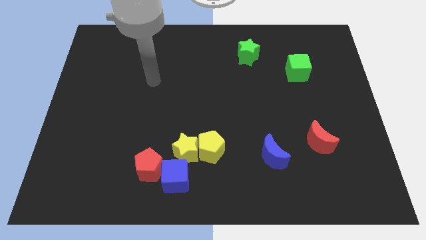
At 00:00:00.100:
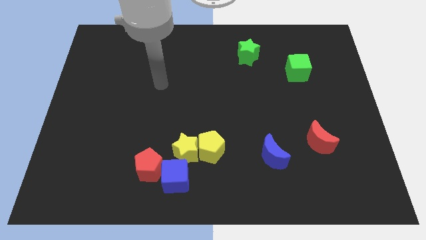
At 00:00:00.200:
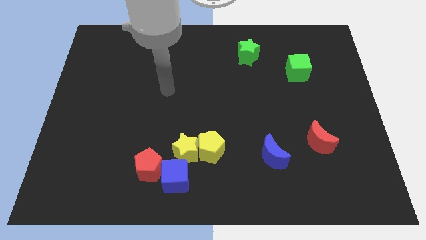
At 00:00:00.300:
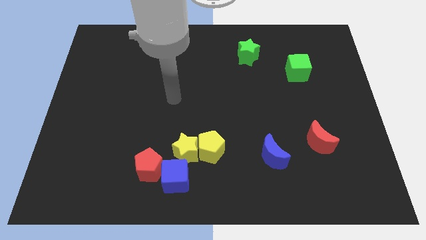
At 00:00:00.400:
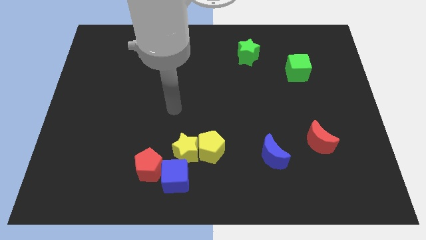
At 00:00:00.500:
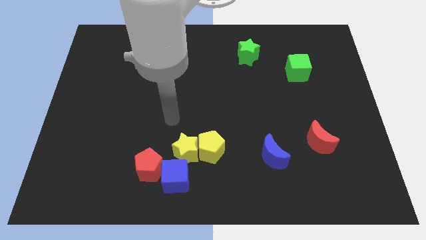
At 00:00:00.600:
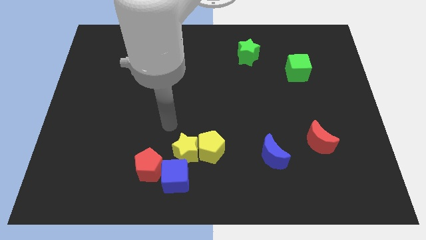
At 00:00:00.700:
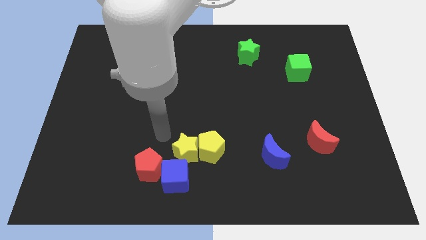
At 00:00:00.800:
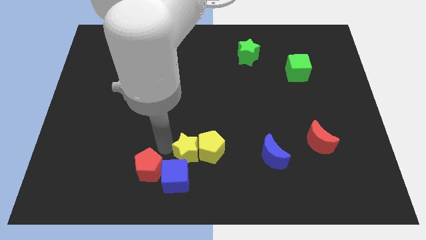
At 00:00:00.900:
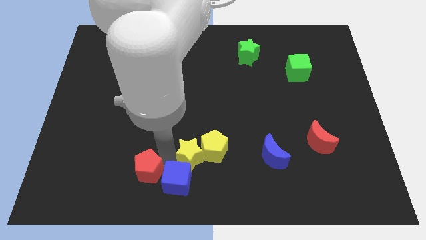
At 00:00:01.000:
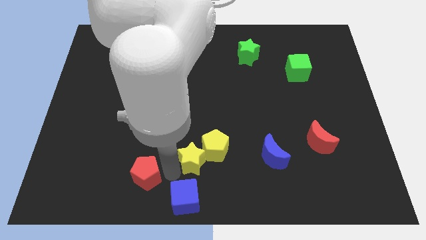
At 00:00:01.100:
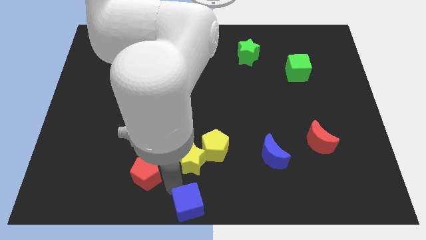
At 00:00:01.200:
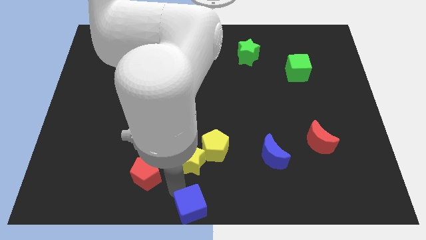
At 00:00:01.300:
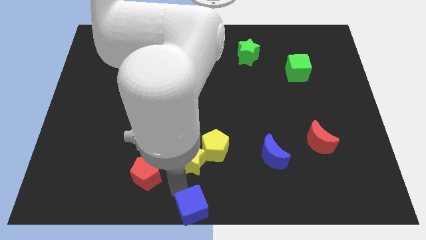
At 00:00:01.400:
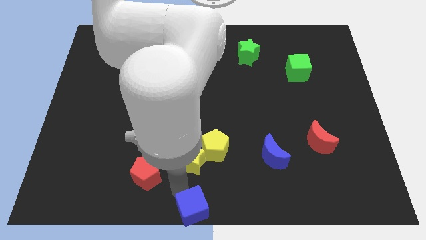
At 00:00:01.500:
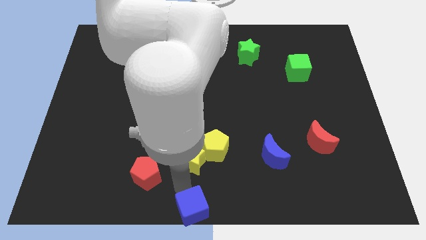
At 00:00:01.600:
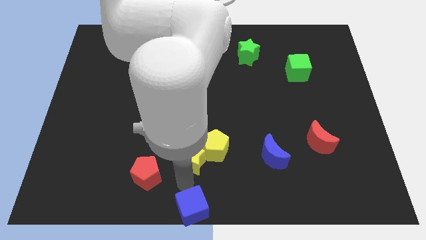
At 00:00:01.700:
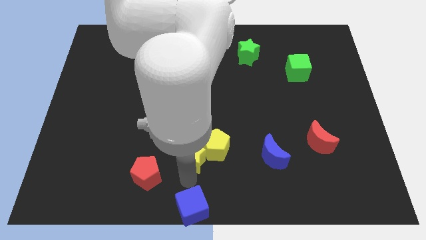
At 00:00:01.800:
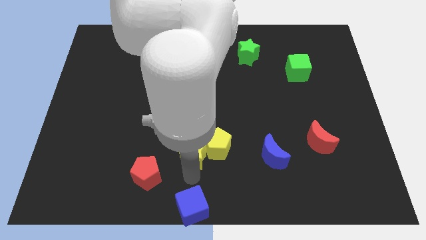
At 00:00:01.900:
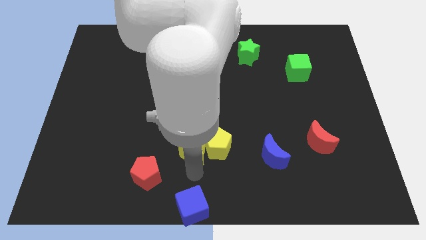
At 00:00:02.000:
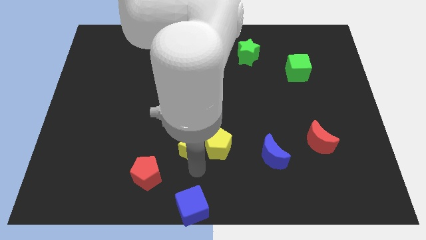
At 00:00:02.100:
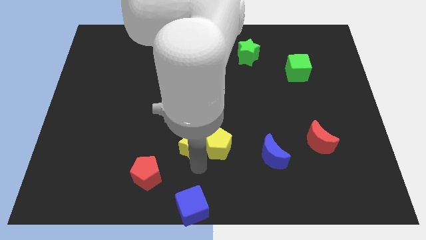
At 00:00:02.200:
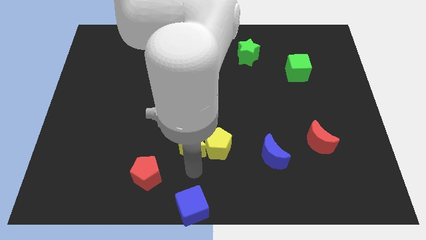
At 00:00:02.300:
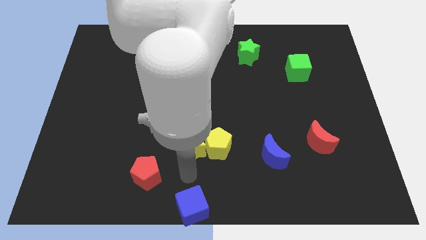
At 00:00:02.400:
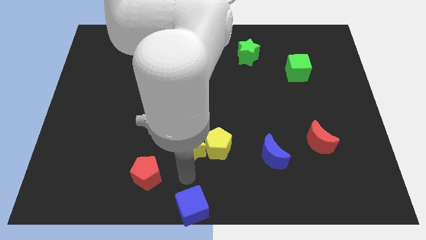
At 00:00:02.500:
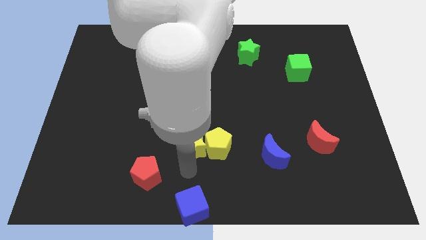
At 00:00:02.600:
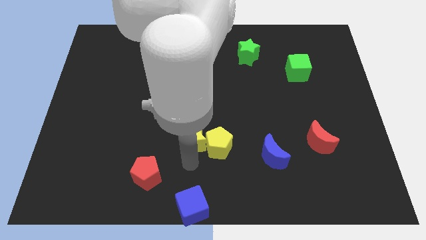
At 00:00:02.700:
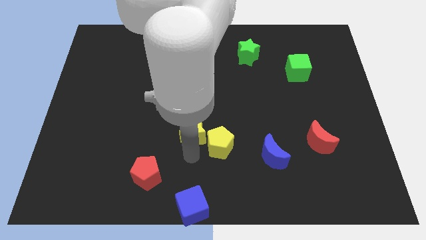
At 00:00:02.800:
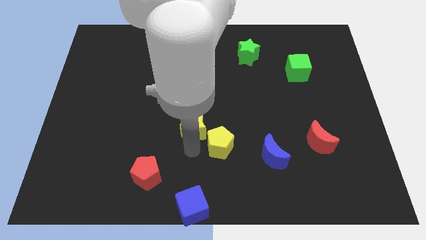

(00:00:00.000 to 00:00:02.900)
pull the yellow star apart from the yellow pentagon, blue cube, and red pentagon

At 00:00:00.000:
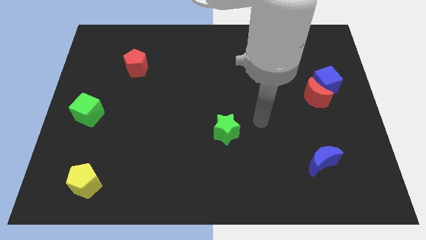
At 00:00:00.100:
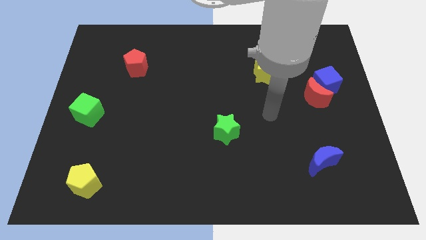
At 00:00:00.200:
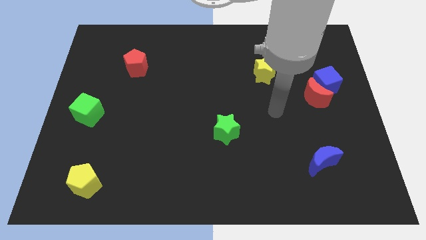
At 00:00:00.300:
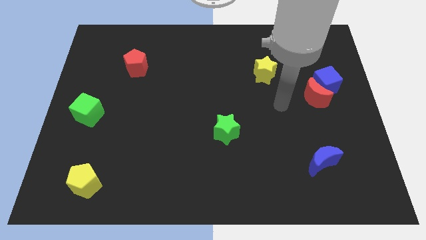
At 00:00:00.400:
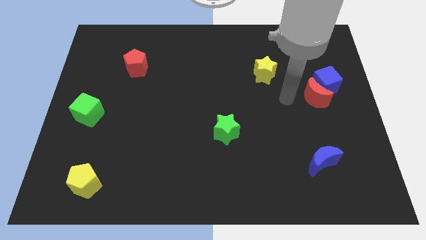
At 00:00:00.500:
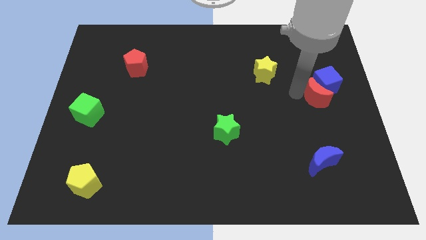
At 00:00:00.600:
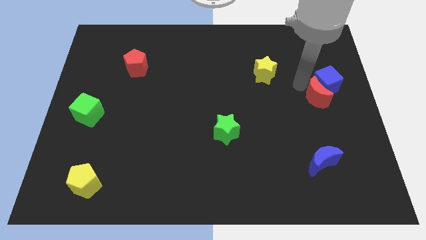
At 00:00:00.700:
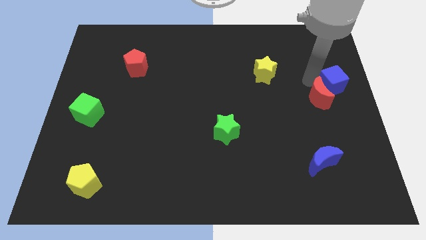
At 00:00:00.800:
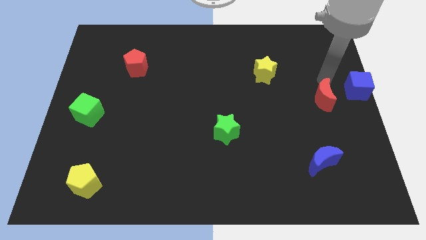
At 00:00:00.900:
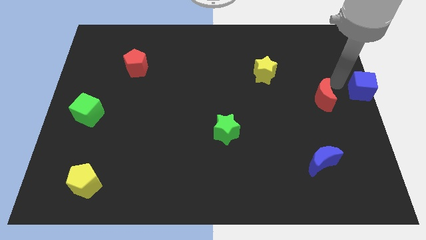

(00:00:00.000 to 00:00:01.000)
move the red moon away from the blue cube

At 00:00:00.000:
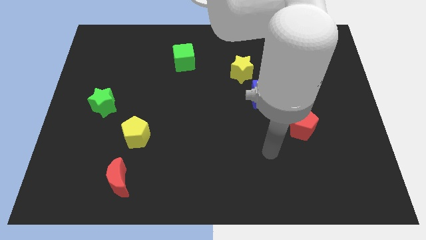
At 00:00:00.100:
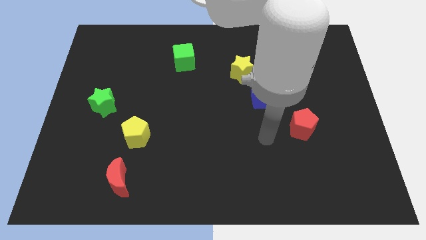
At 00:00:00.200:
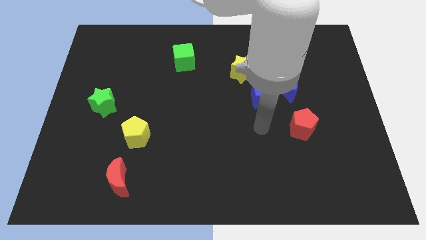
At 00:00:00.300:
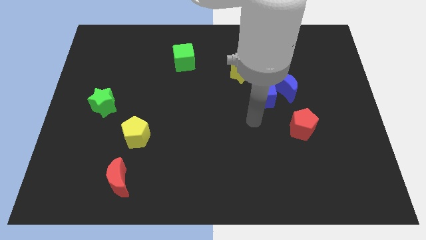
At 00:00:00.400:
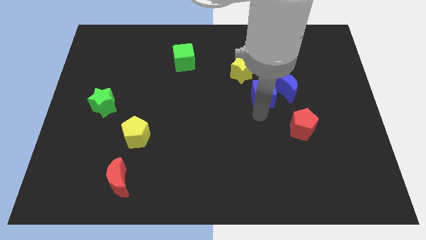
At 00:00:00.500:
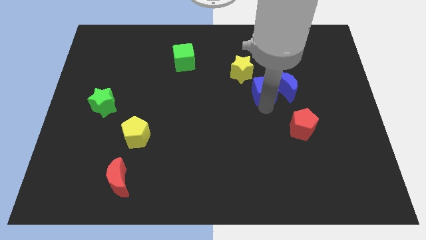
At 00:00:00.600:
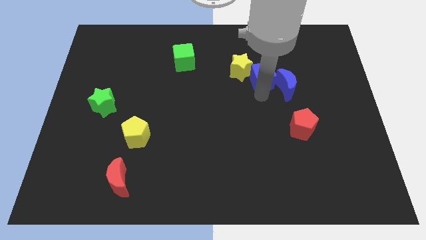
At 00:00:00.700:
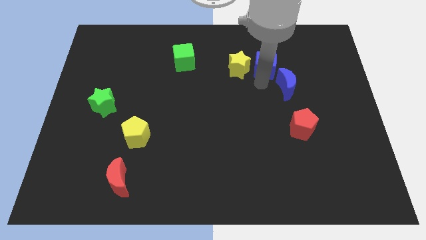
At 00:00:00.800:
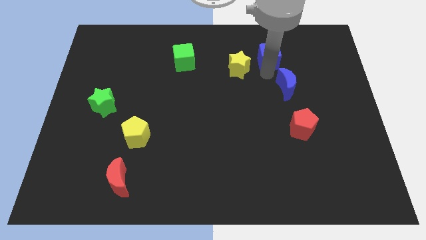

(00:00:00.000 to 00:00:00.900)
pull the blue moon apart from the blue cube

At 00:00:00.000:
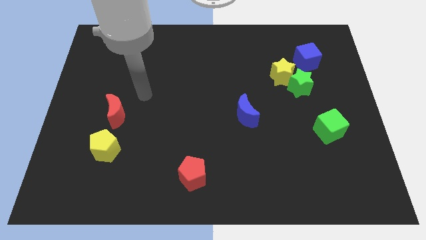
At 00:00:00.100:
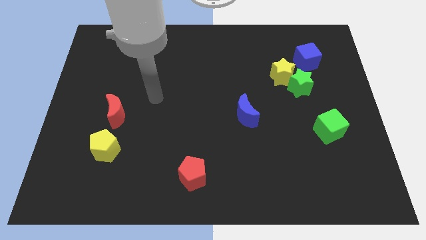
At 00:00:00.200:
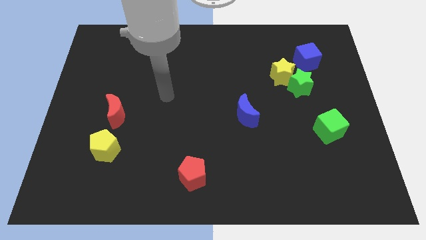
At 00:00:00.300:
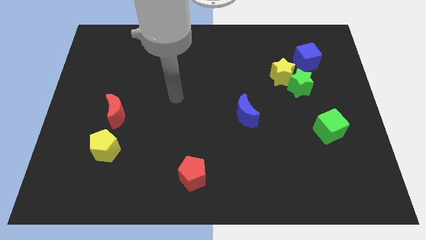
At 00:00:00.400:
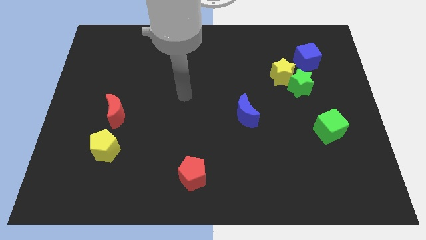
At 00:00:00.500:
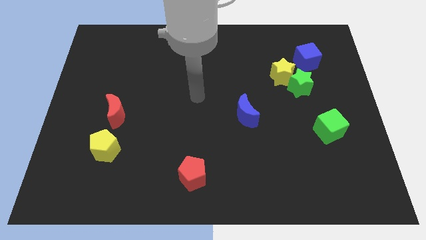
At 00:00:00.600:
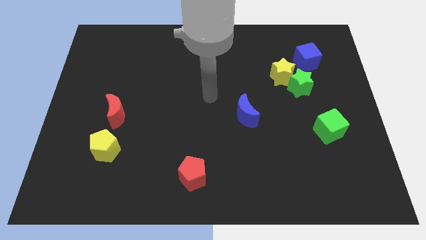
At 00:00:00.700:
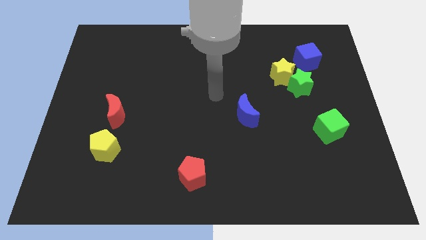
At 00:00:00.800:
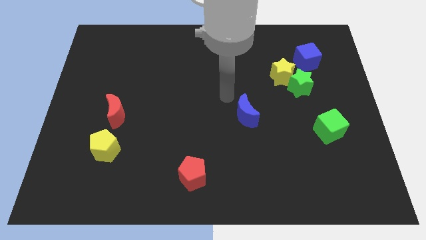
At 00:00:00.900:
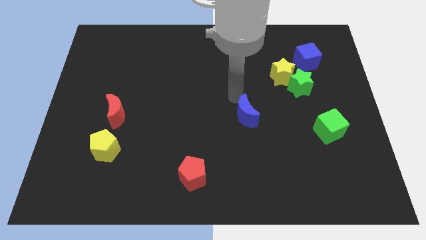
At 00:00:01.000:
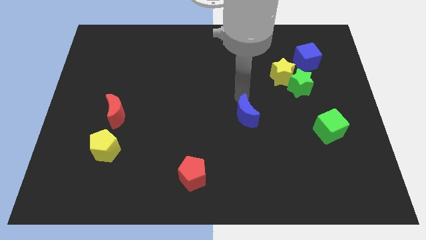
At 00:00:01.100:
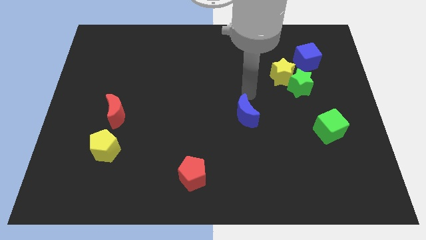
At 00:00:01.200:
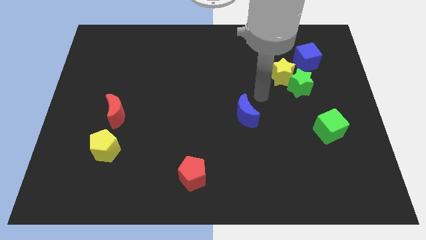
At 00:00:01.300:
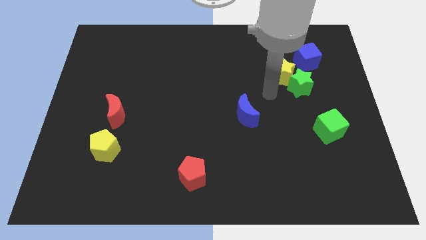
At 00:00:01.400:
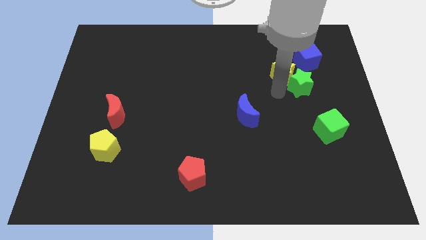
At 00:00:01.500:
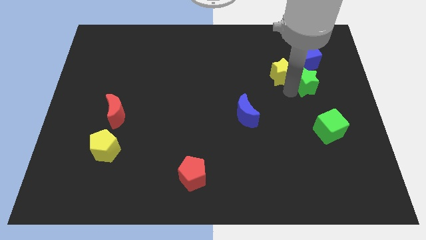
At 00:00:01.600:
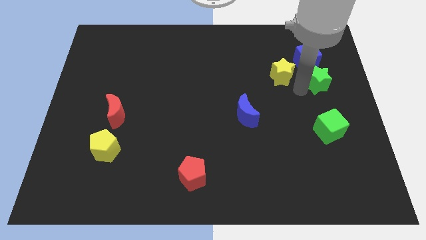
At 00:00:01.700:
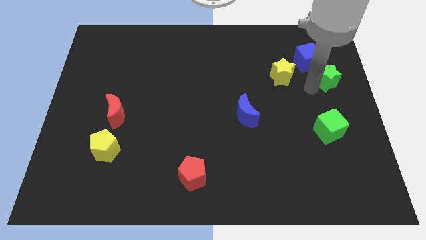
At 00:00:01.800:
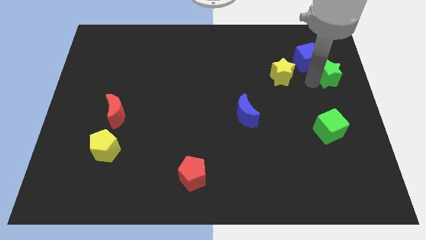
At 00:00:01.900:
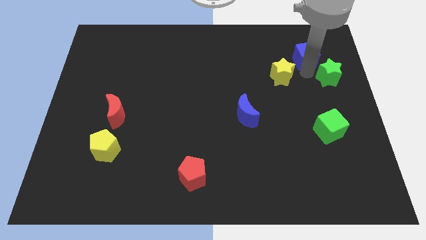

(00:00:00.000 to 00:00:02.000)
pull the yellow star apart from the green star and blue cube

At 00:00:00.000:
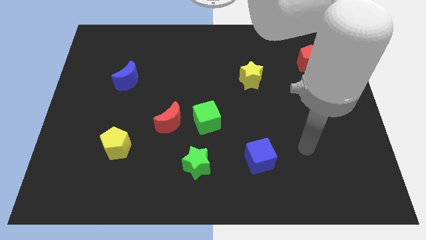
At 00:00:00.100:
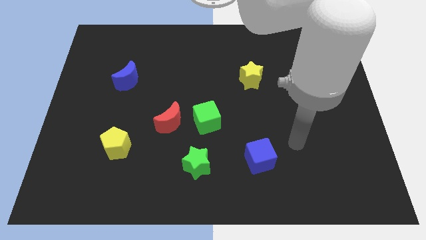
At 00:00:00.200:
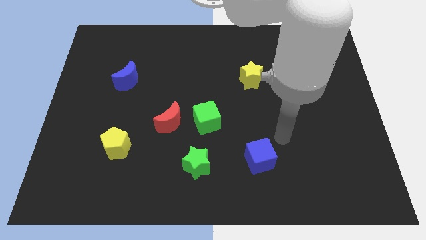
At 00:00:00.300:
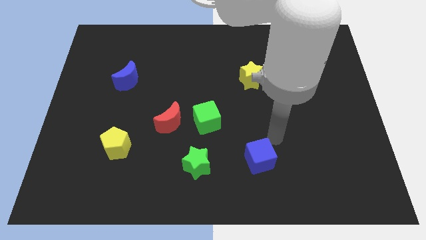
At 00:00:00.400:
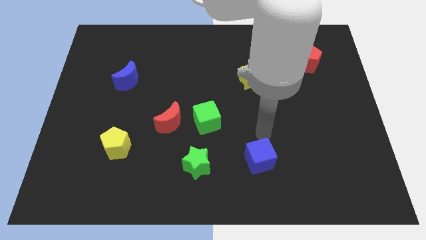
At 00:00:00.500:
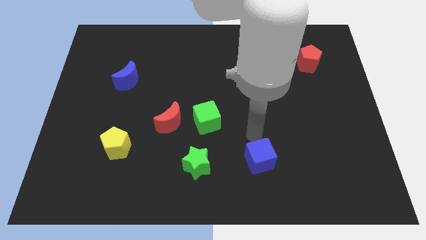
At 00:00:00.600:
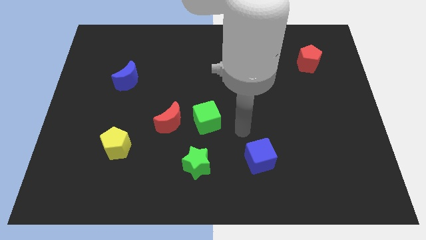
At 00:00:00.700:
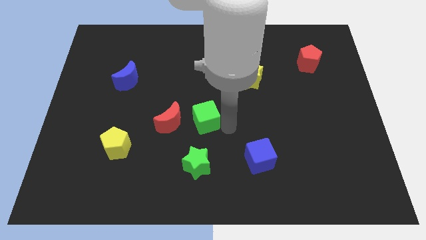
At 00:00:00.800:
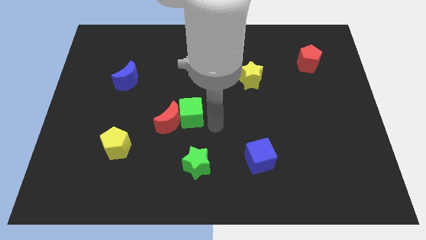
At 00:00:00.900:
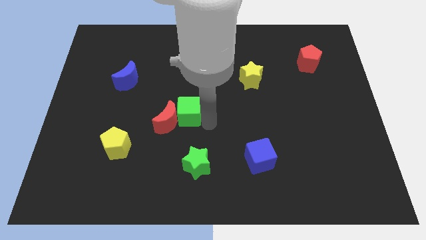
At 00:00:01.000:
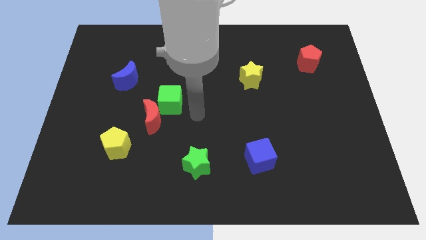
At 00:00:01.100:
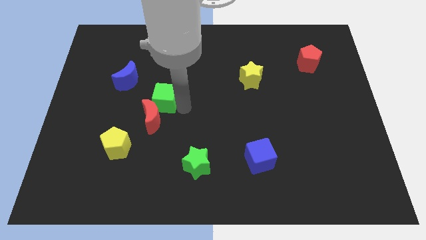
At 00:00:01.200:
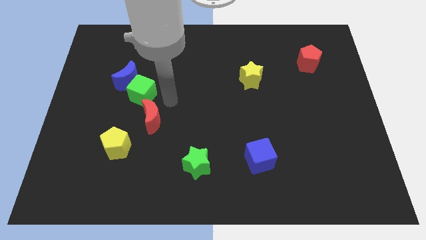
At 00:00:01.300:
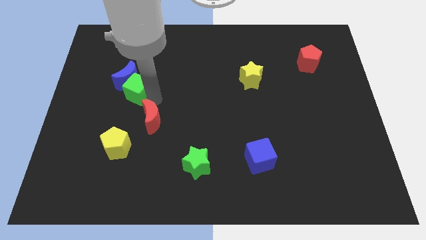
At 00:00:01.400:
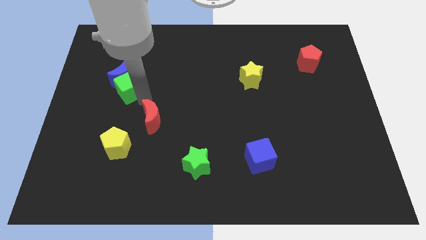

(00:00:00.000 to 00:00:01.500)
separate the red moon from the green cube

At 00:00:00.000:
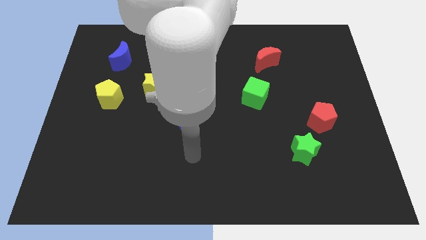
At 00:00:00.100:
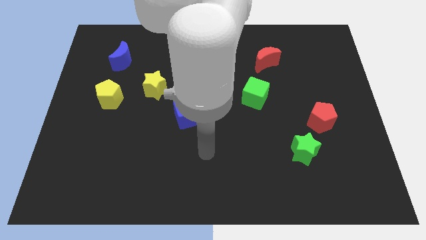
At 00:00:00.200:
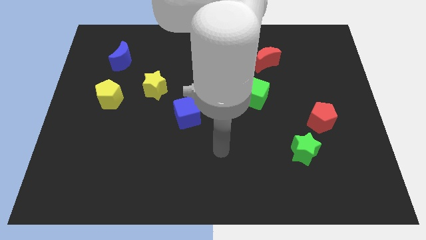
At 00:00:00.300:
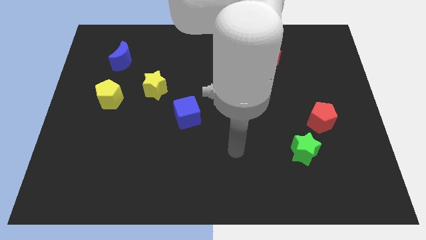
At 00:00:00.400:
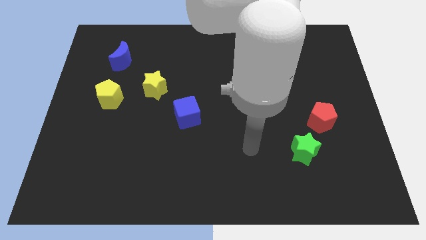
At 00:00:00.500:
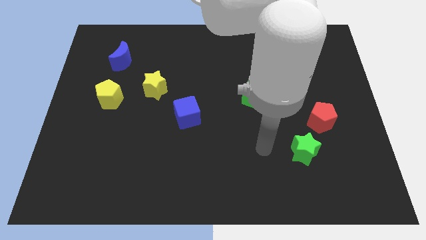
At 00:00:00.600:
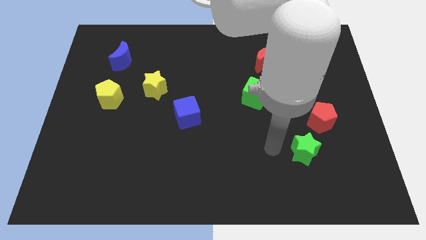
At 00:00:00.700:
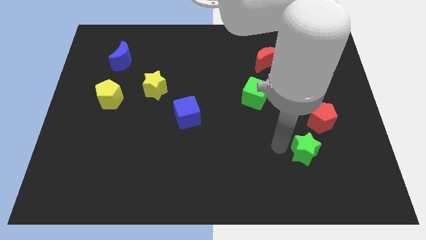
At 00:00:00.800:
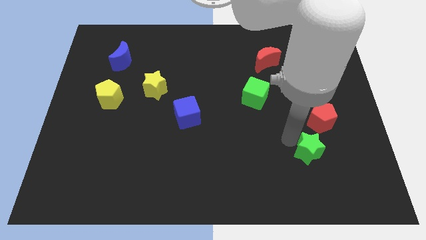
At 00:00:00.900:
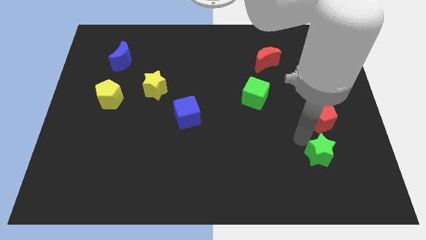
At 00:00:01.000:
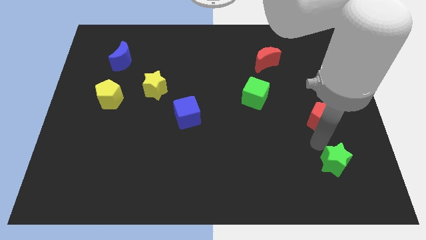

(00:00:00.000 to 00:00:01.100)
move the red pentagon away from the green star
